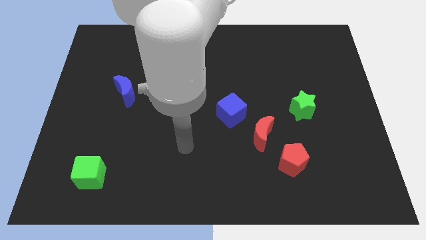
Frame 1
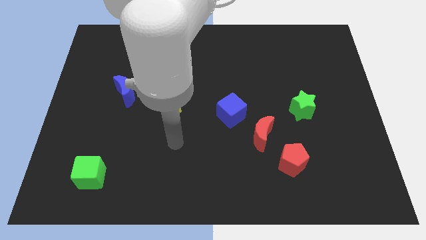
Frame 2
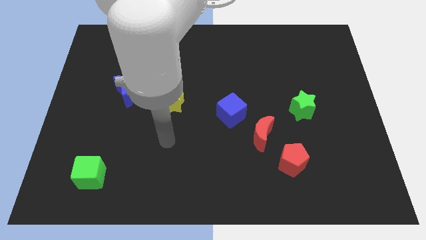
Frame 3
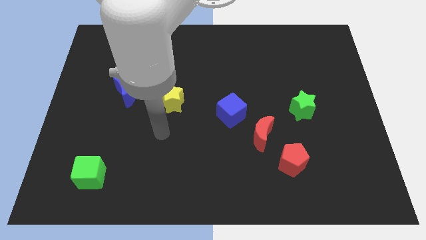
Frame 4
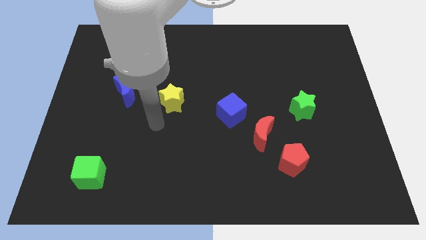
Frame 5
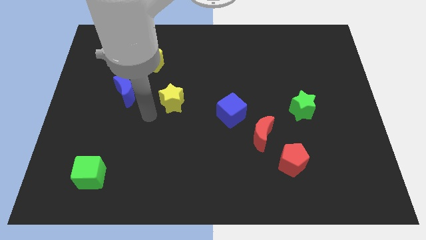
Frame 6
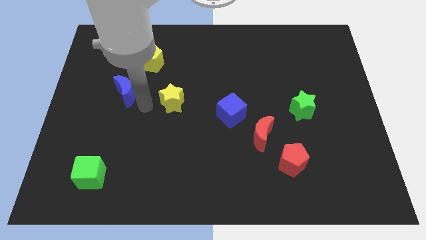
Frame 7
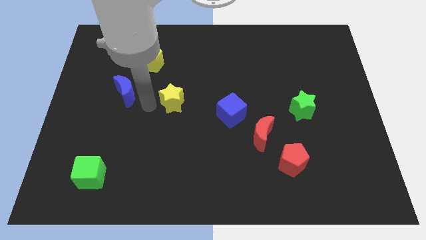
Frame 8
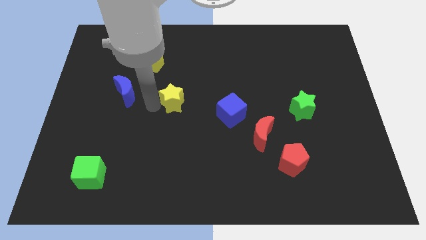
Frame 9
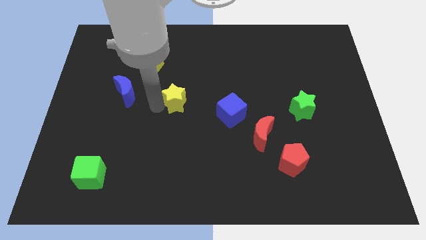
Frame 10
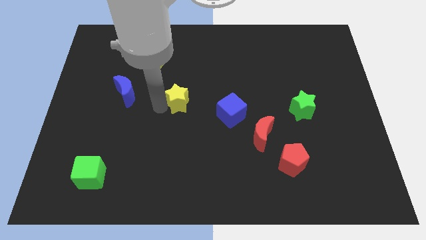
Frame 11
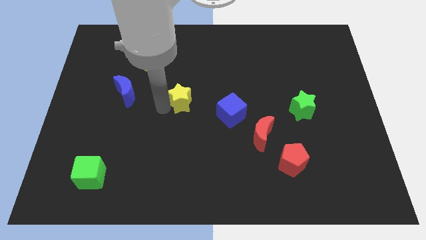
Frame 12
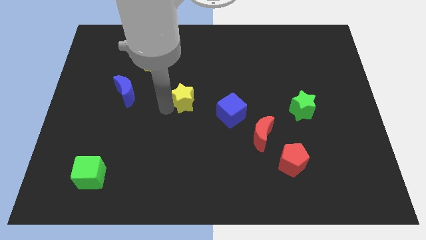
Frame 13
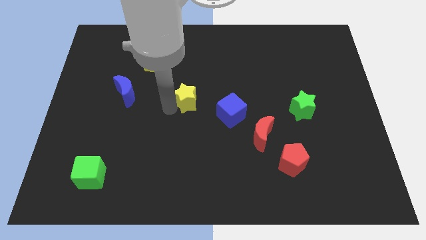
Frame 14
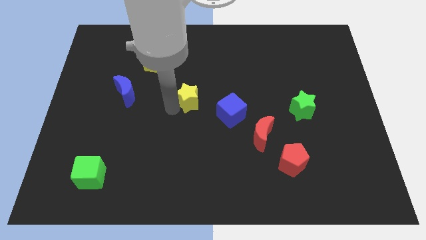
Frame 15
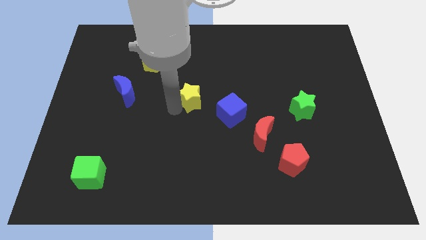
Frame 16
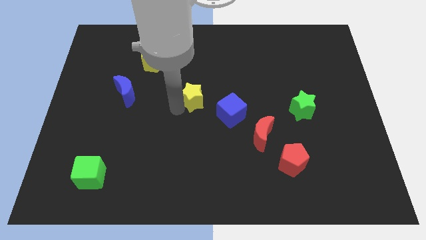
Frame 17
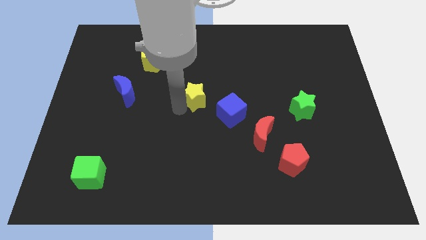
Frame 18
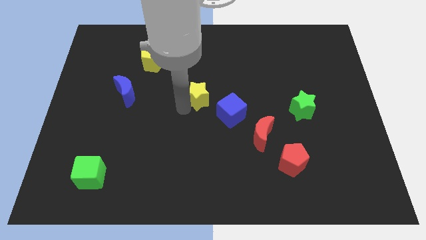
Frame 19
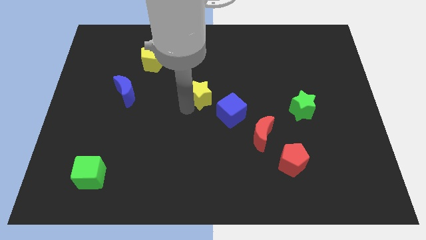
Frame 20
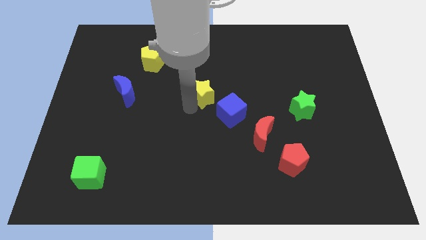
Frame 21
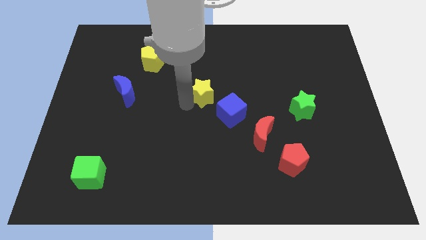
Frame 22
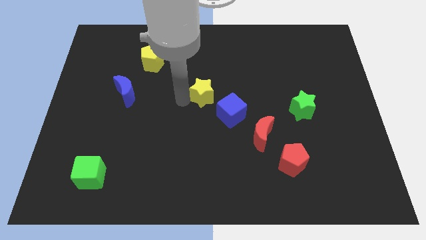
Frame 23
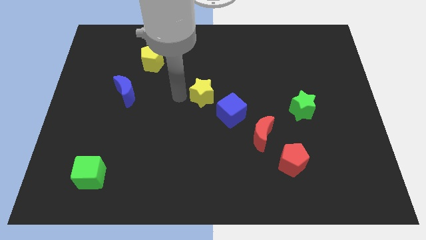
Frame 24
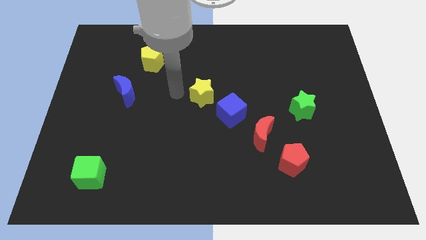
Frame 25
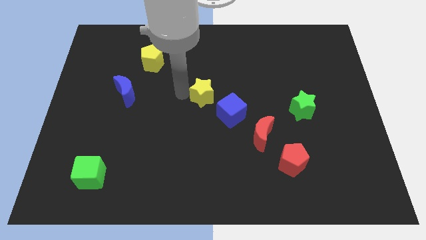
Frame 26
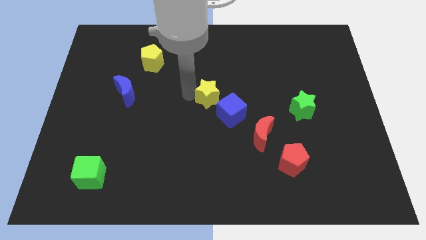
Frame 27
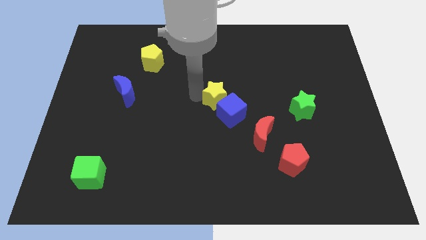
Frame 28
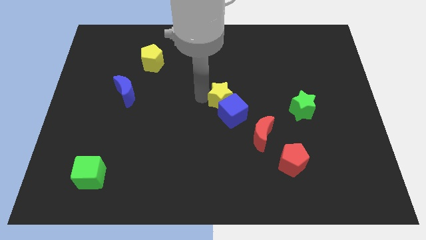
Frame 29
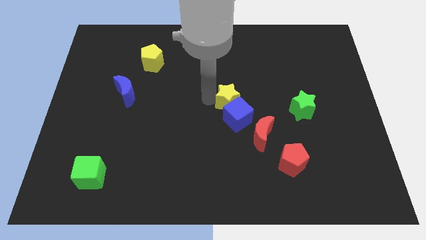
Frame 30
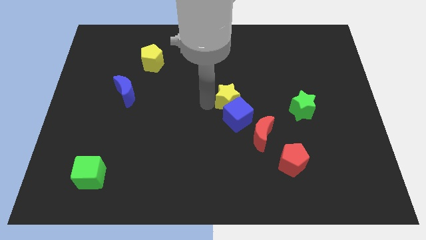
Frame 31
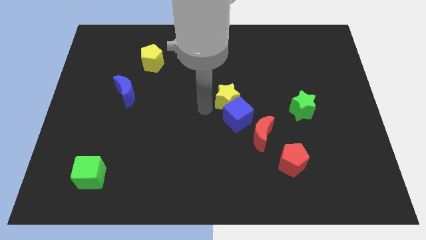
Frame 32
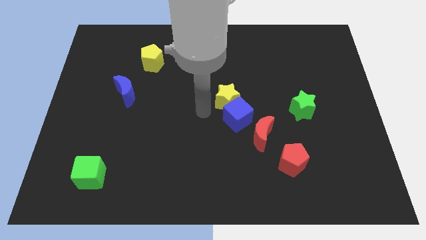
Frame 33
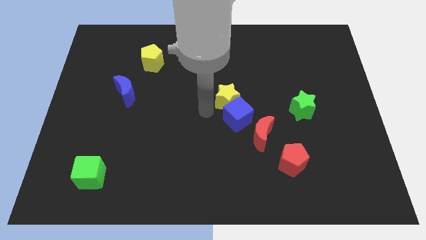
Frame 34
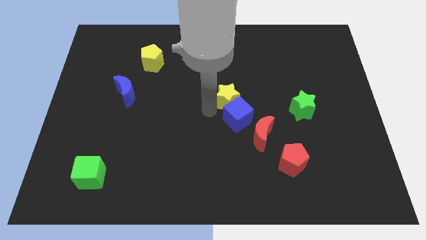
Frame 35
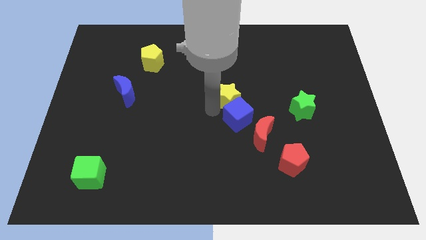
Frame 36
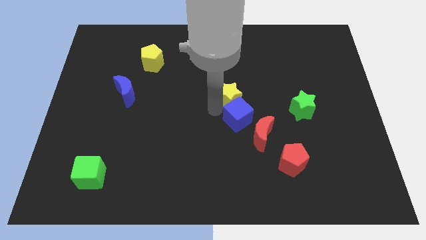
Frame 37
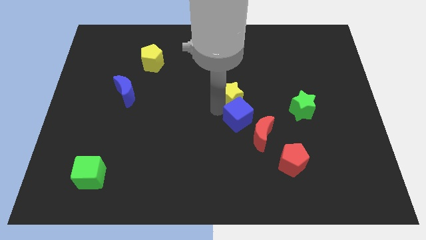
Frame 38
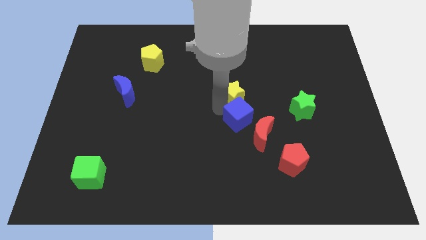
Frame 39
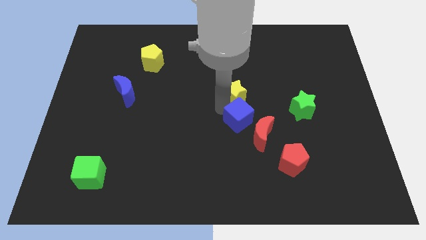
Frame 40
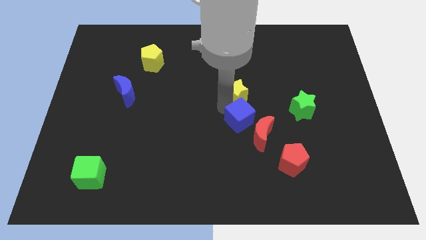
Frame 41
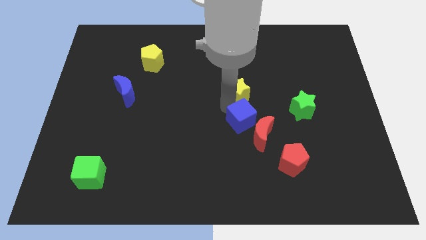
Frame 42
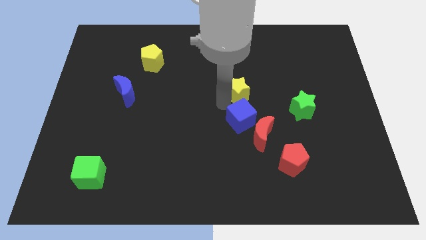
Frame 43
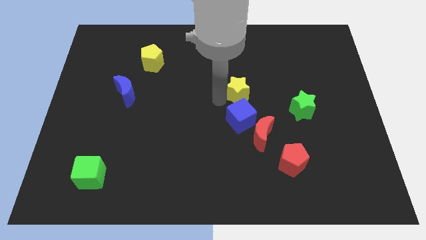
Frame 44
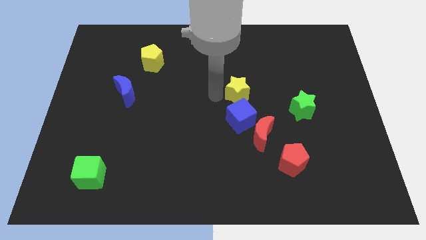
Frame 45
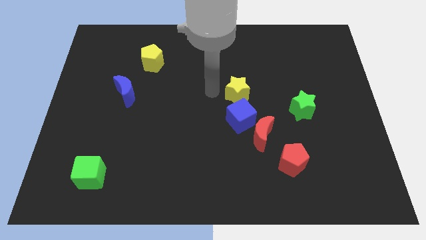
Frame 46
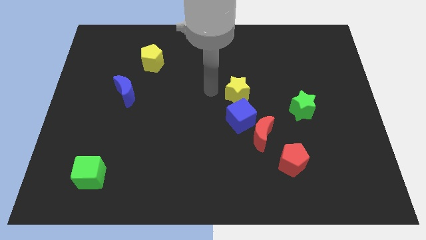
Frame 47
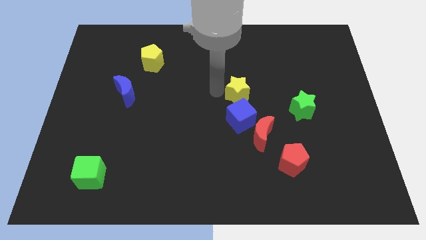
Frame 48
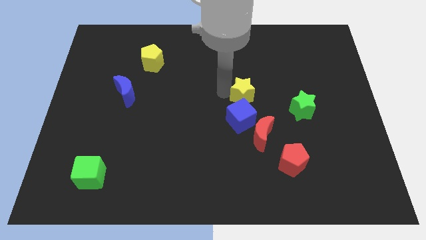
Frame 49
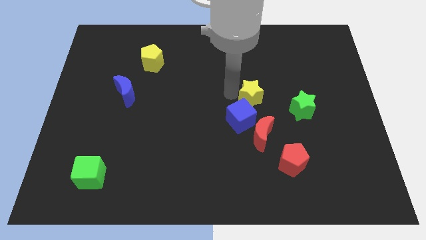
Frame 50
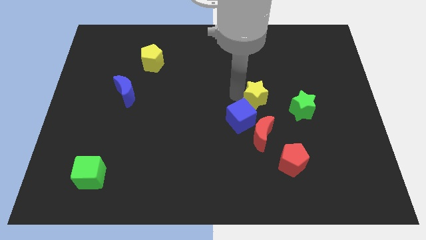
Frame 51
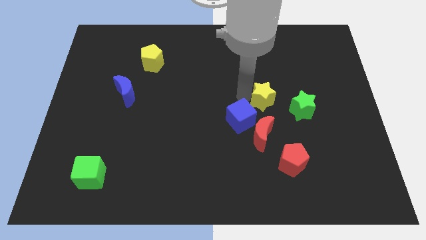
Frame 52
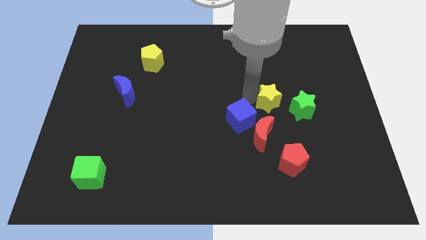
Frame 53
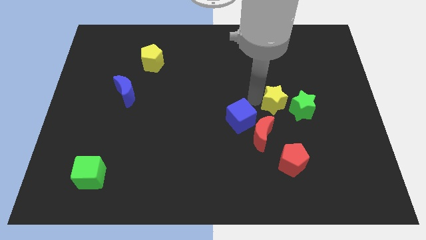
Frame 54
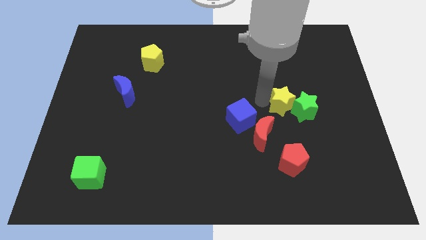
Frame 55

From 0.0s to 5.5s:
move the yellow star next to the green star

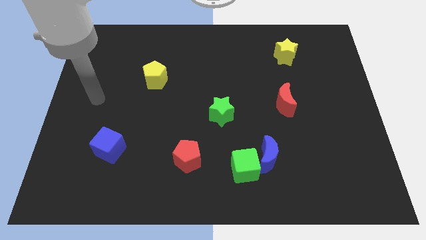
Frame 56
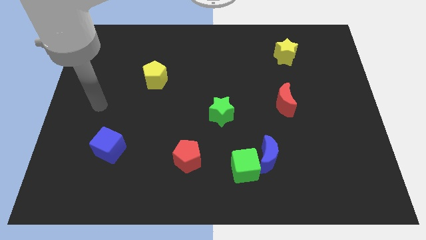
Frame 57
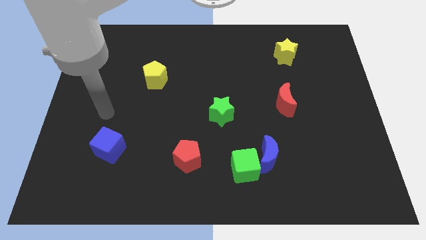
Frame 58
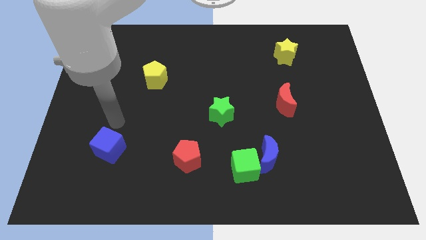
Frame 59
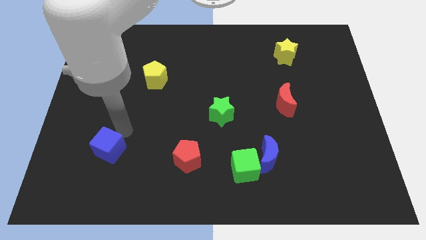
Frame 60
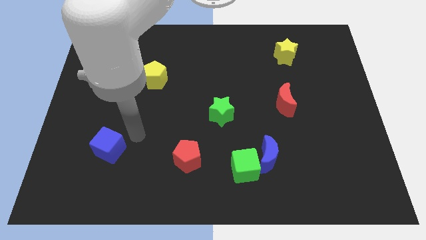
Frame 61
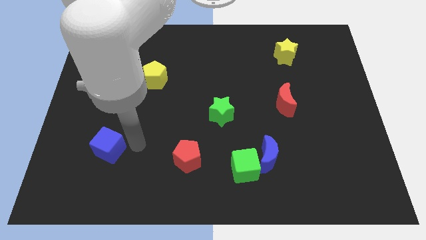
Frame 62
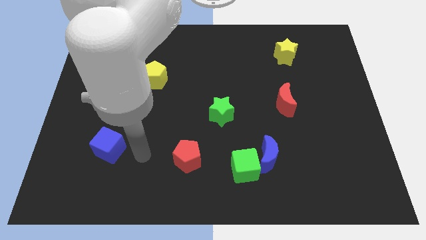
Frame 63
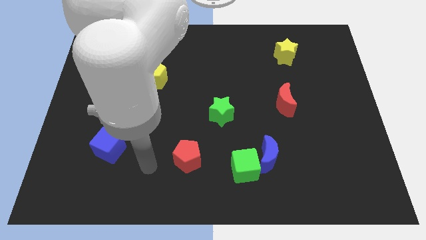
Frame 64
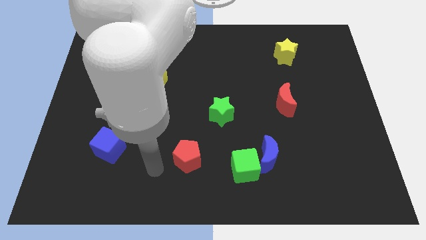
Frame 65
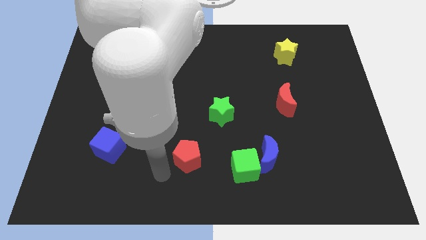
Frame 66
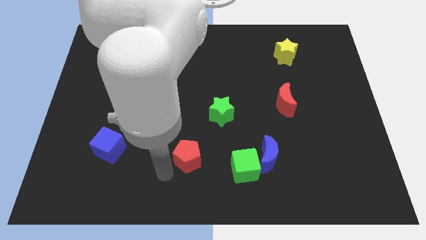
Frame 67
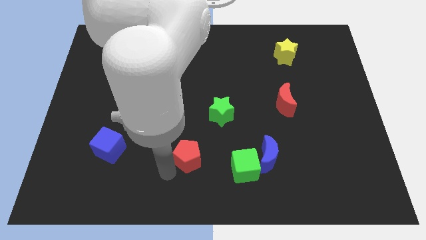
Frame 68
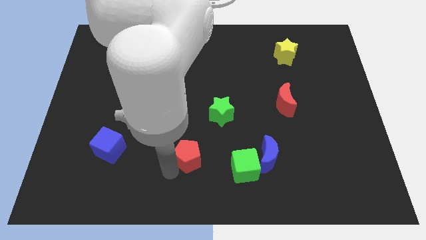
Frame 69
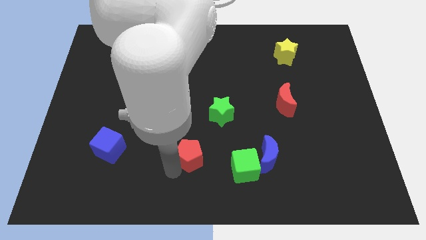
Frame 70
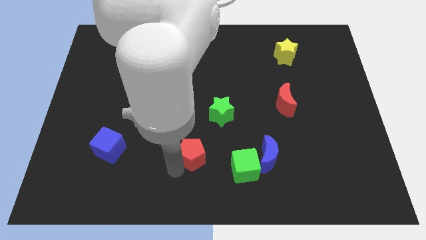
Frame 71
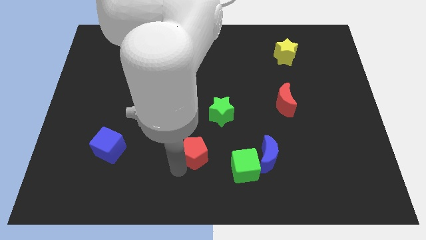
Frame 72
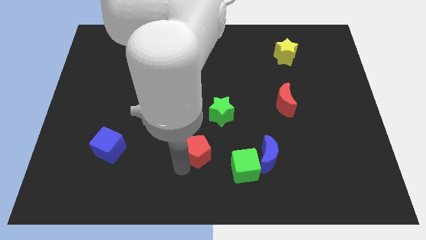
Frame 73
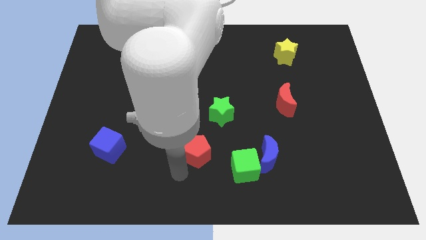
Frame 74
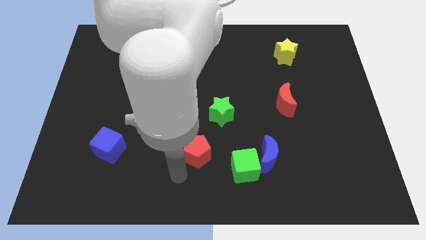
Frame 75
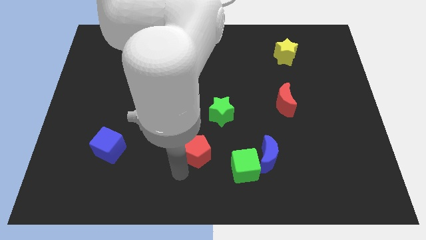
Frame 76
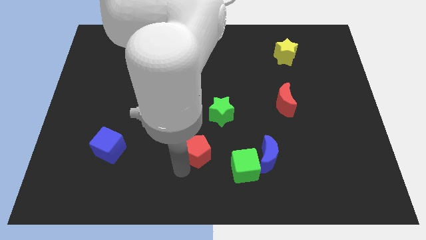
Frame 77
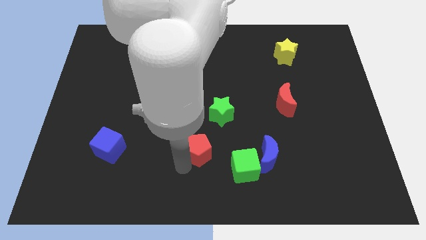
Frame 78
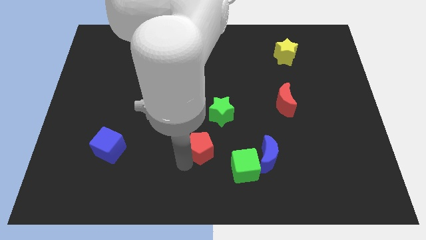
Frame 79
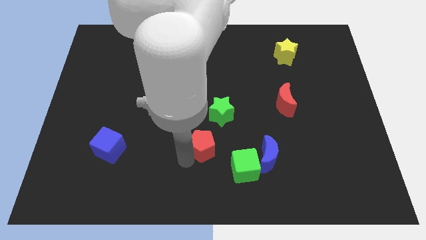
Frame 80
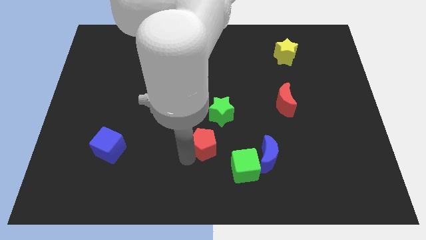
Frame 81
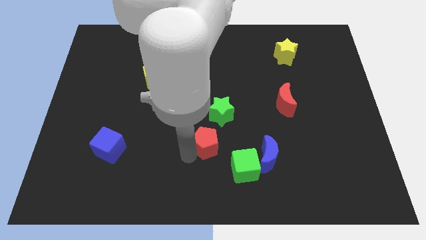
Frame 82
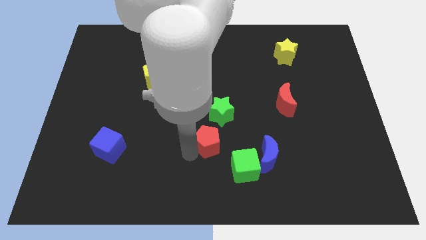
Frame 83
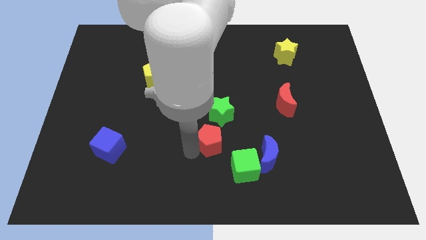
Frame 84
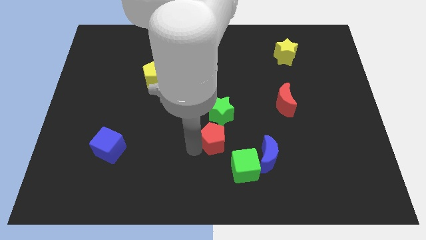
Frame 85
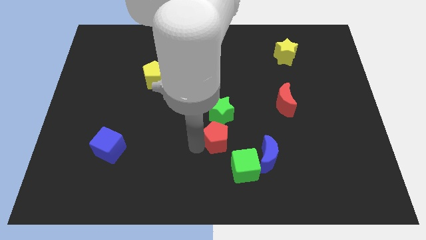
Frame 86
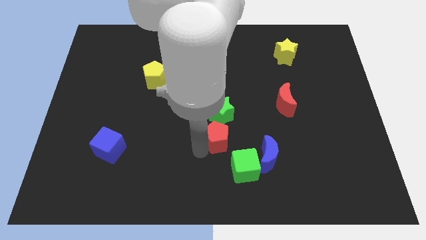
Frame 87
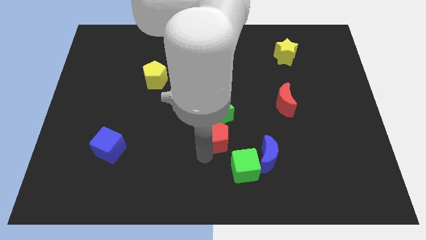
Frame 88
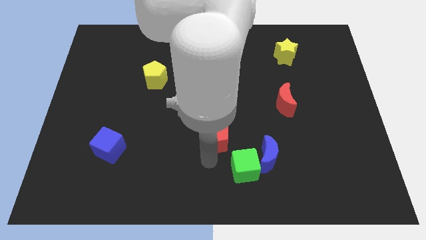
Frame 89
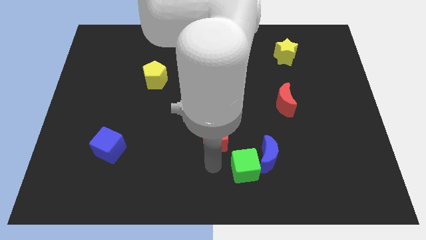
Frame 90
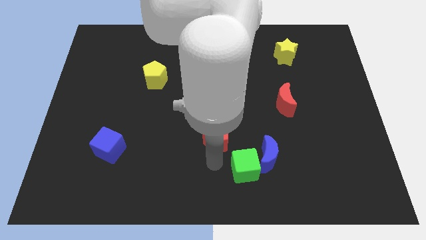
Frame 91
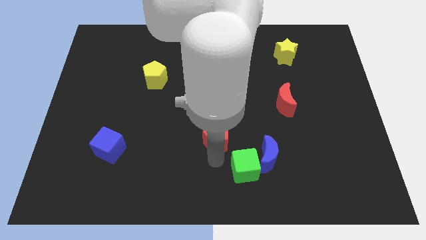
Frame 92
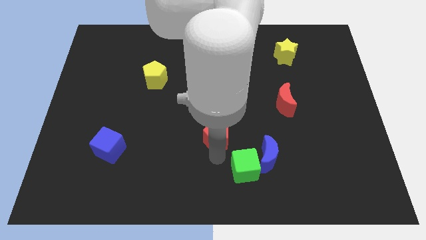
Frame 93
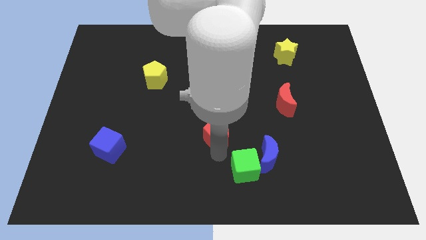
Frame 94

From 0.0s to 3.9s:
push the red pentagon close to the green star
